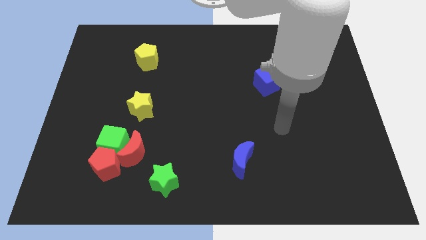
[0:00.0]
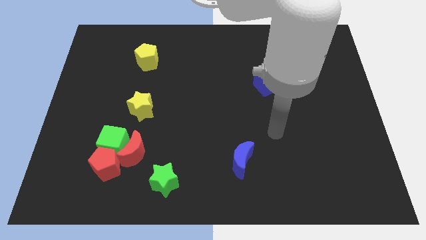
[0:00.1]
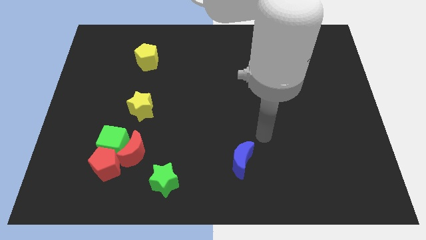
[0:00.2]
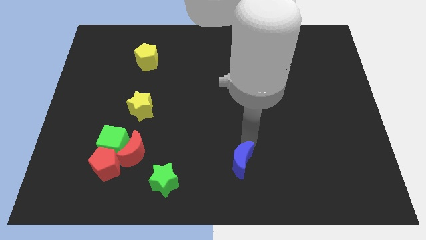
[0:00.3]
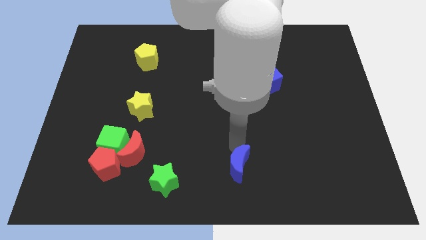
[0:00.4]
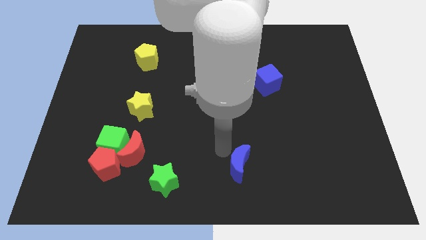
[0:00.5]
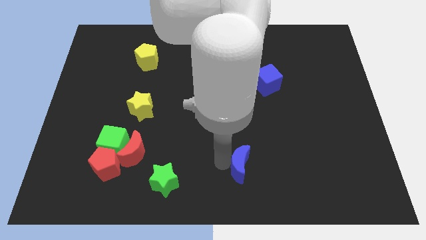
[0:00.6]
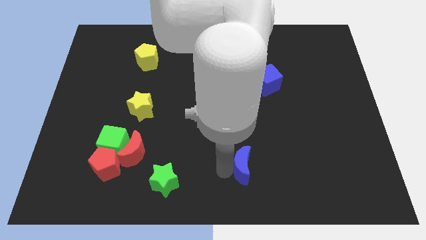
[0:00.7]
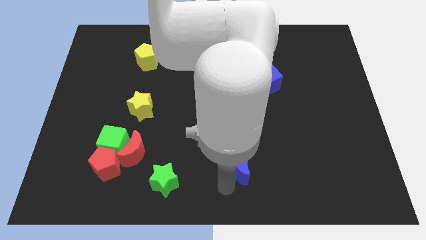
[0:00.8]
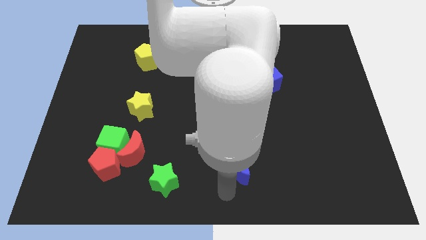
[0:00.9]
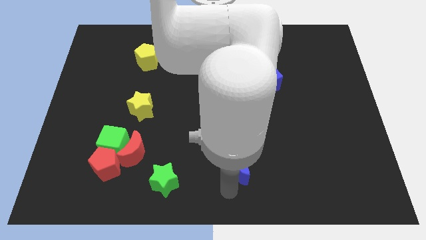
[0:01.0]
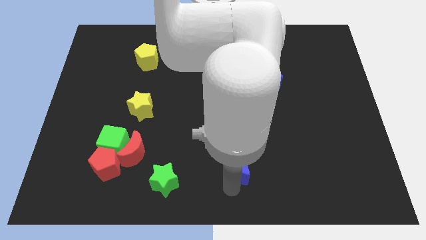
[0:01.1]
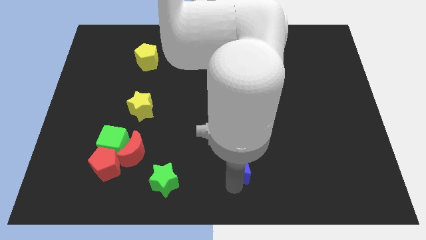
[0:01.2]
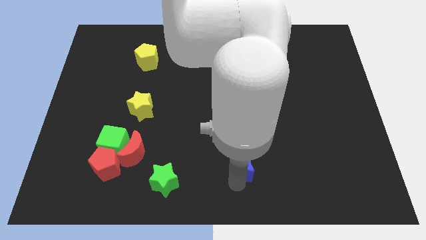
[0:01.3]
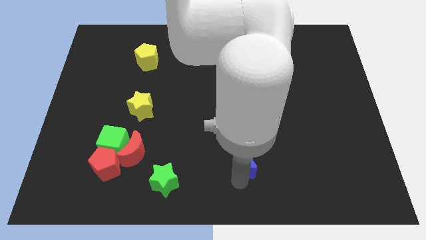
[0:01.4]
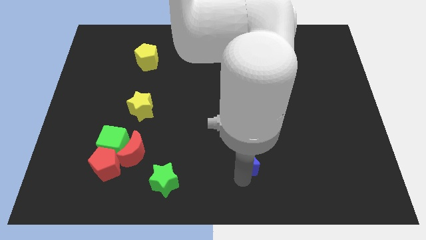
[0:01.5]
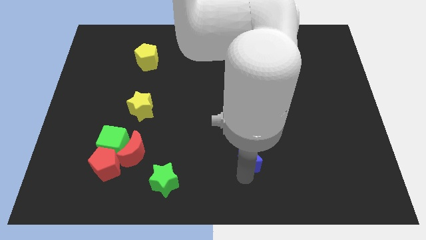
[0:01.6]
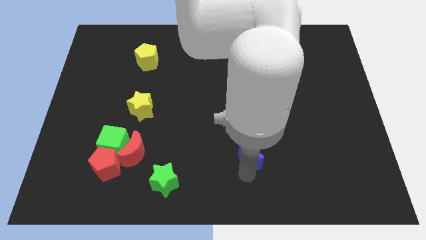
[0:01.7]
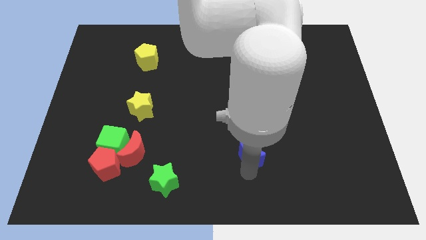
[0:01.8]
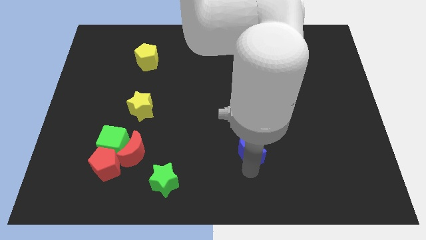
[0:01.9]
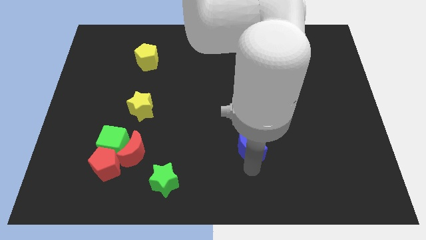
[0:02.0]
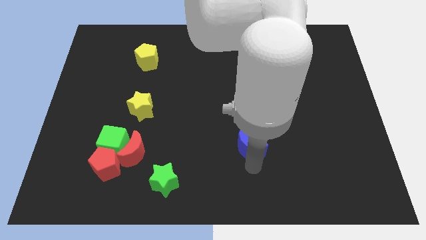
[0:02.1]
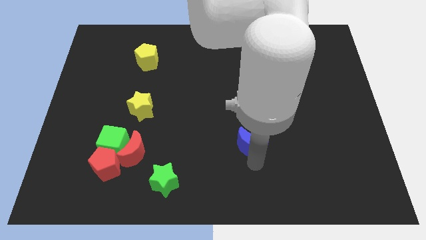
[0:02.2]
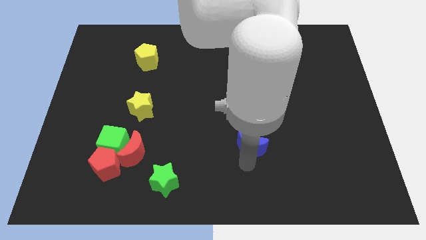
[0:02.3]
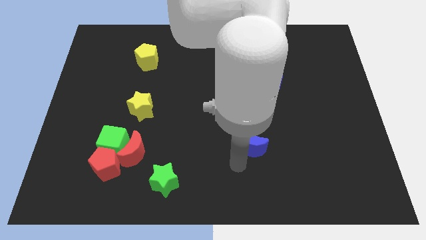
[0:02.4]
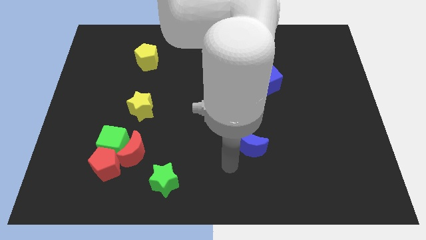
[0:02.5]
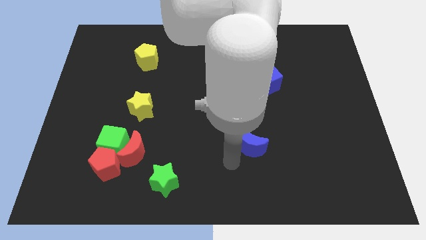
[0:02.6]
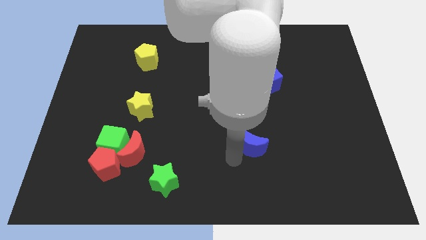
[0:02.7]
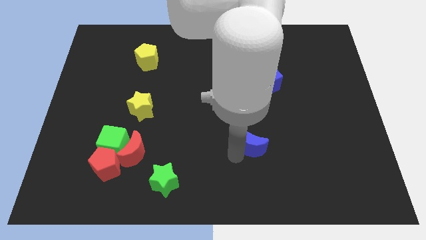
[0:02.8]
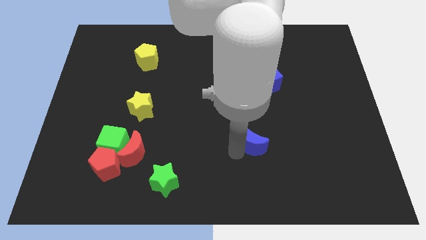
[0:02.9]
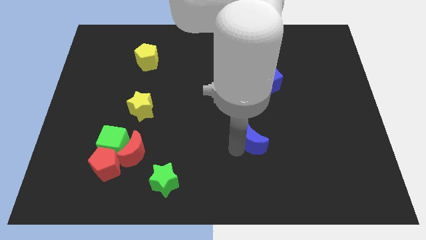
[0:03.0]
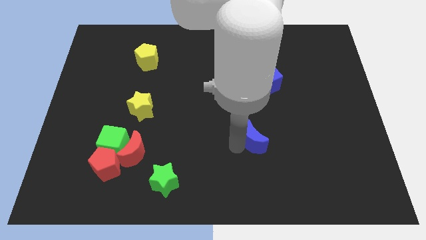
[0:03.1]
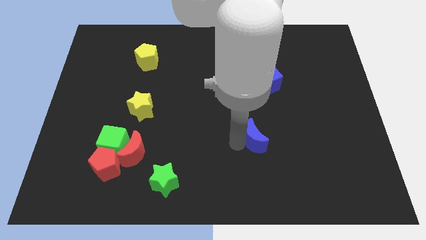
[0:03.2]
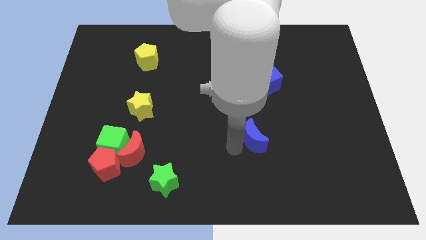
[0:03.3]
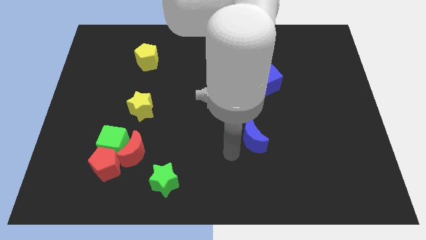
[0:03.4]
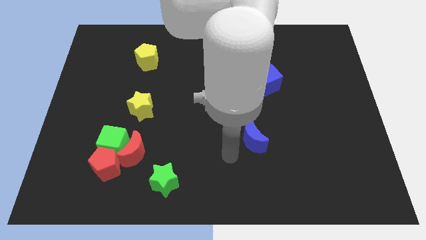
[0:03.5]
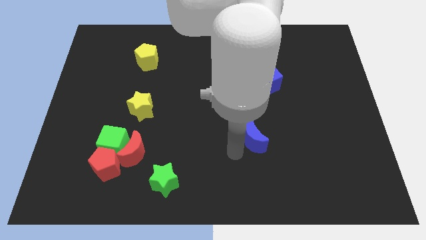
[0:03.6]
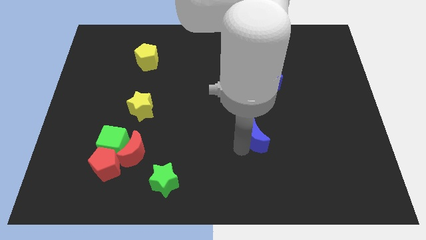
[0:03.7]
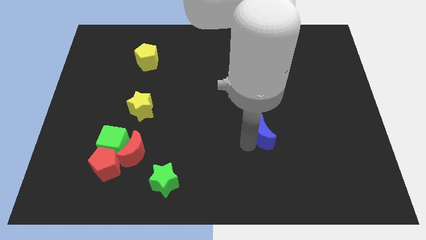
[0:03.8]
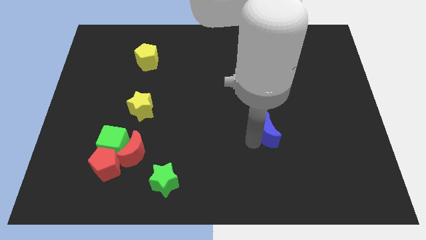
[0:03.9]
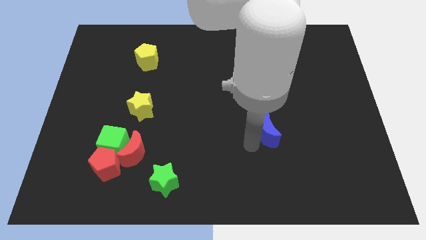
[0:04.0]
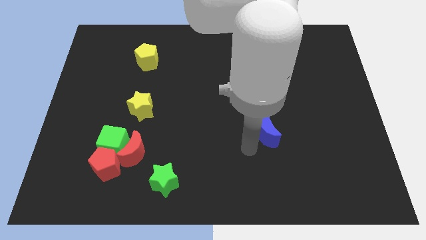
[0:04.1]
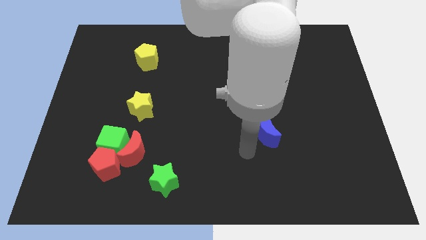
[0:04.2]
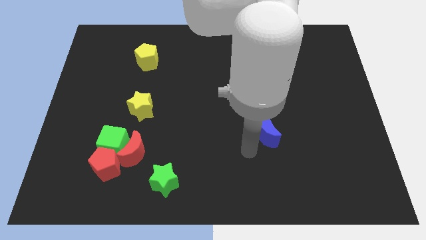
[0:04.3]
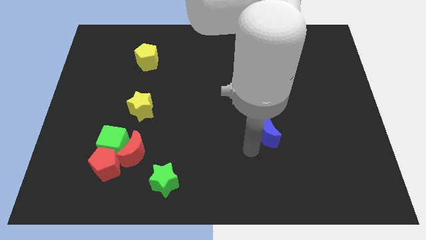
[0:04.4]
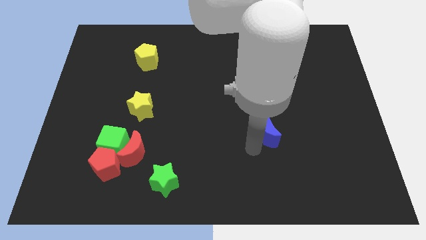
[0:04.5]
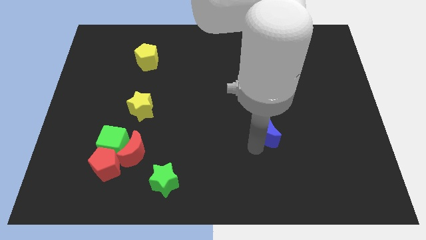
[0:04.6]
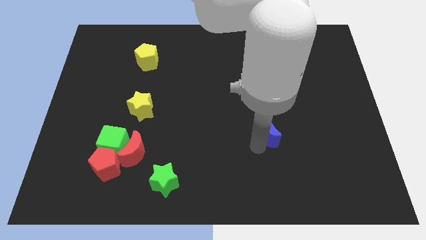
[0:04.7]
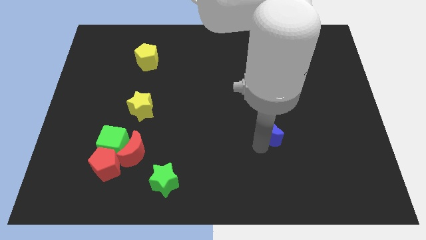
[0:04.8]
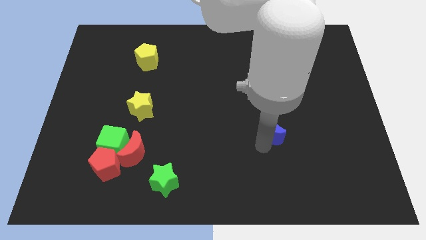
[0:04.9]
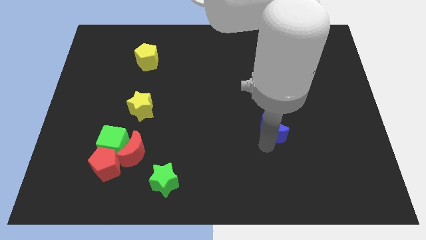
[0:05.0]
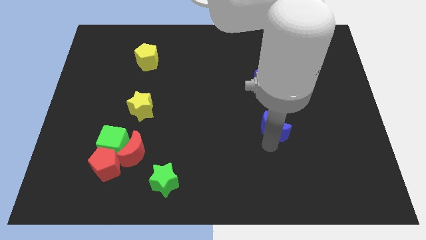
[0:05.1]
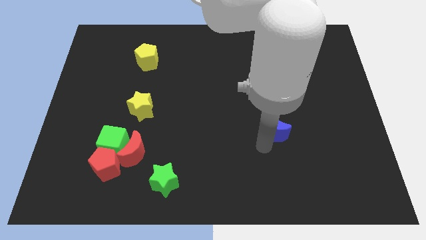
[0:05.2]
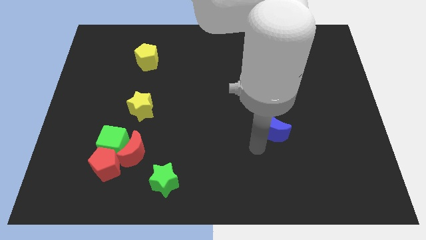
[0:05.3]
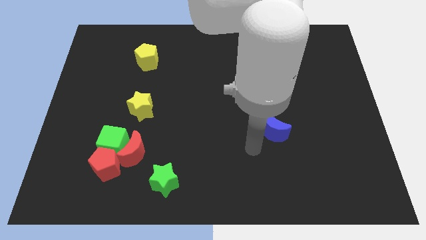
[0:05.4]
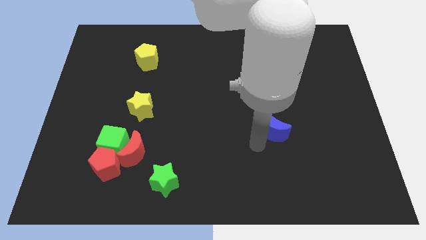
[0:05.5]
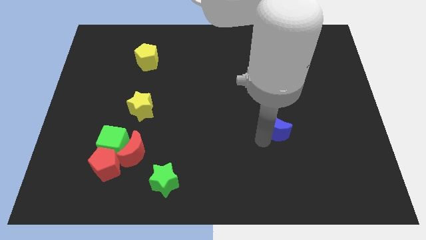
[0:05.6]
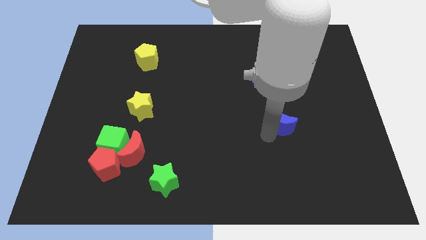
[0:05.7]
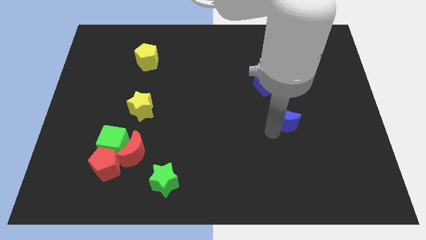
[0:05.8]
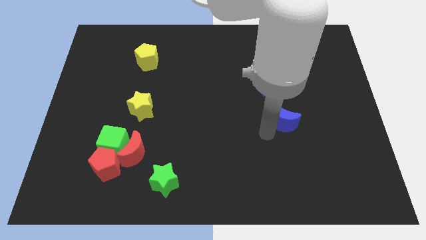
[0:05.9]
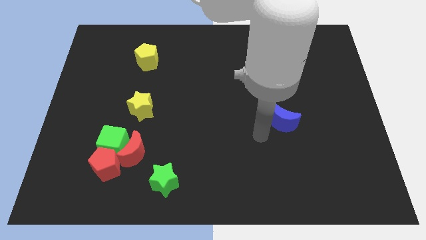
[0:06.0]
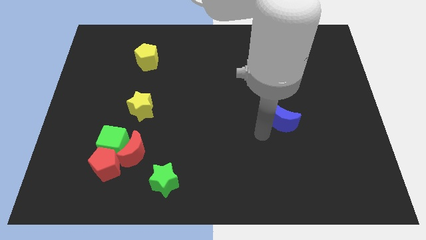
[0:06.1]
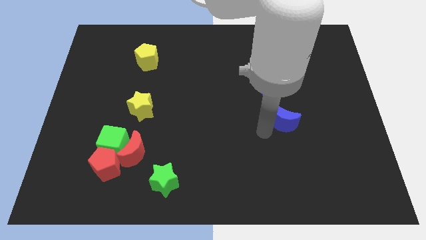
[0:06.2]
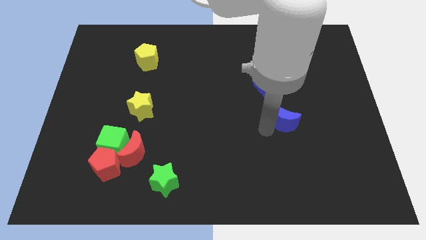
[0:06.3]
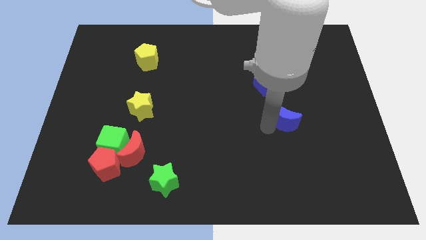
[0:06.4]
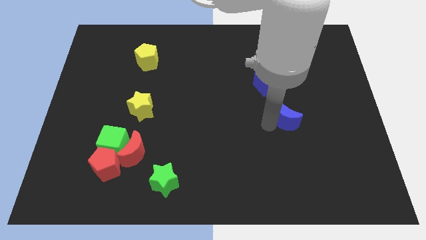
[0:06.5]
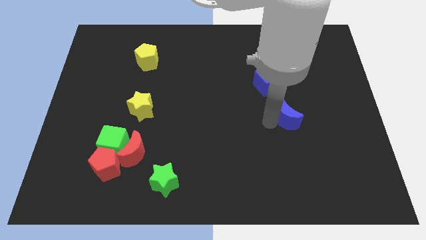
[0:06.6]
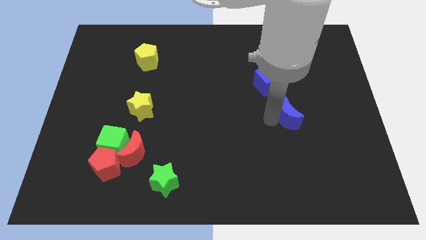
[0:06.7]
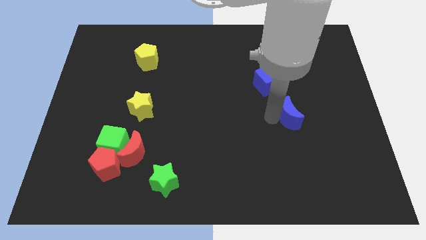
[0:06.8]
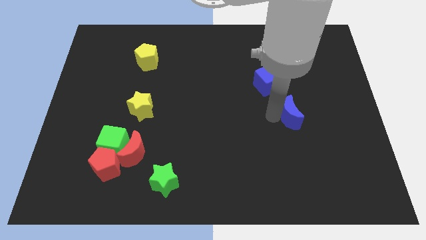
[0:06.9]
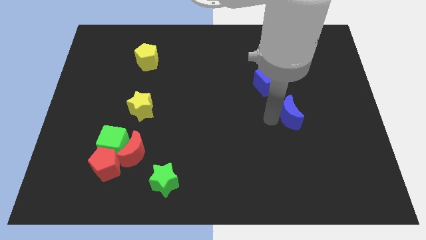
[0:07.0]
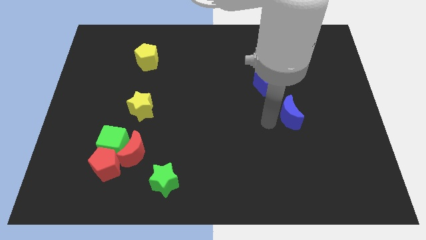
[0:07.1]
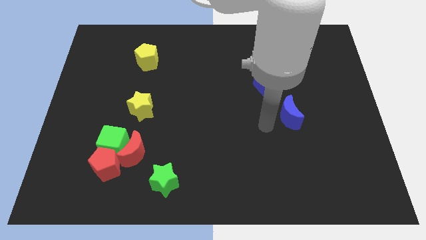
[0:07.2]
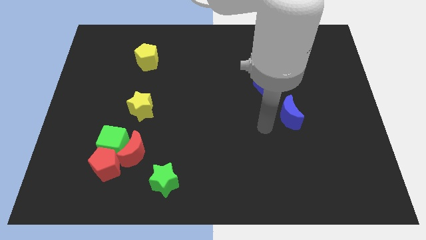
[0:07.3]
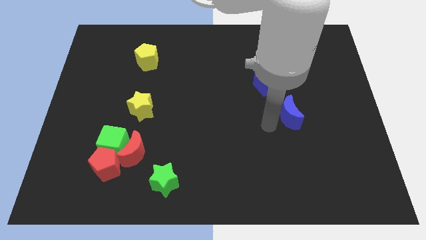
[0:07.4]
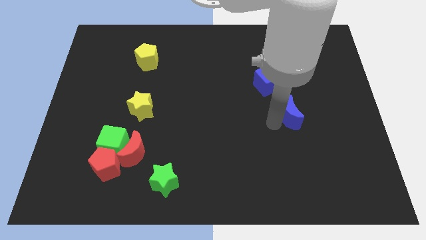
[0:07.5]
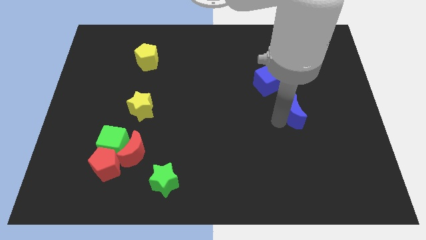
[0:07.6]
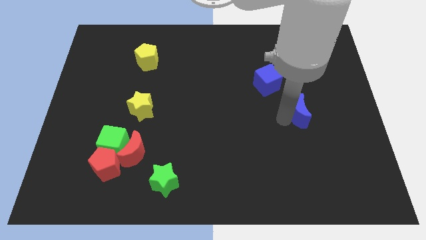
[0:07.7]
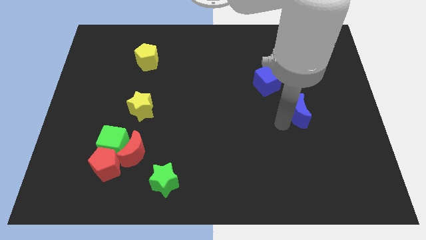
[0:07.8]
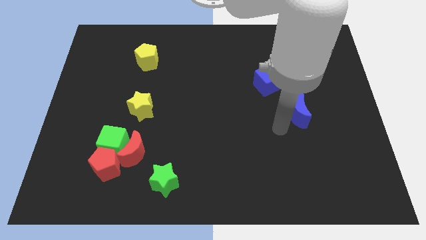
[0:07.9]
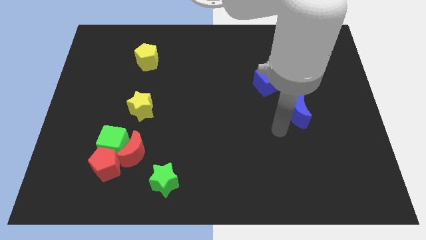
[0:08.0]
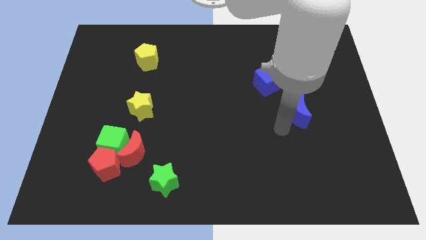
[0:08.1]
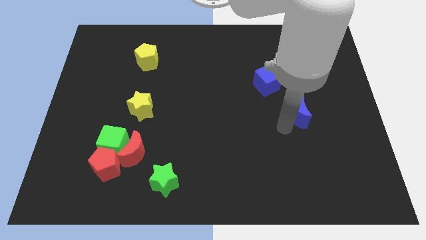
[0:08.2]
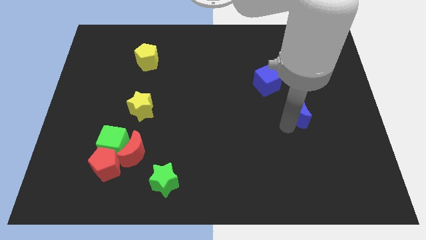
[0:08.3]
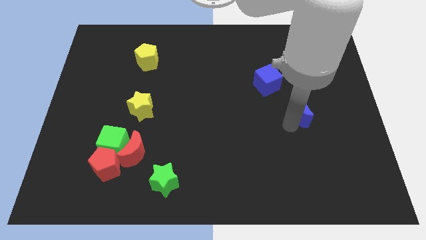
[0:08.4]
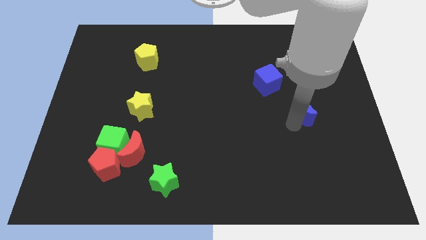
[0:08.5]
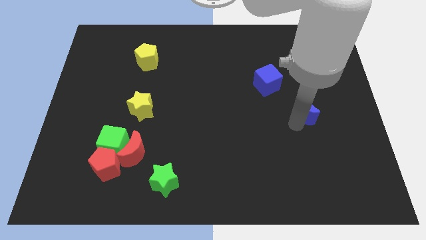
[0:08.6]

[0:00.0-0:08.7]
move the blue moon up and right
